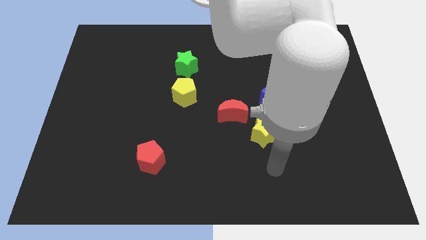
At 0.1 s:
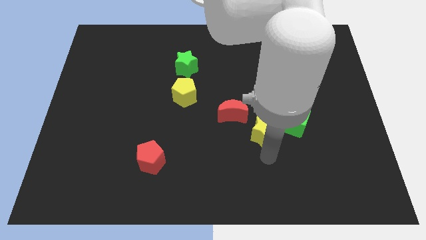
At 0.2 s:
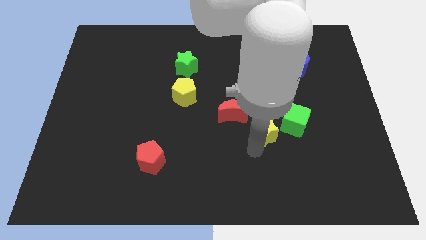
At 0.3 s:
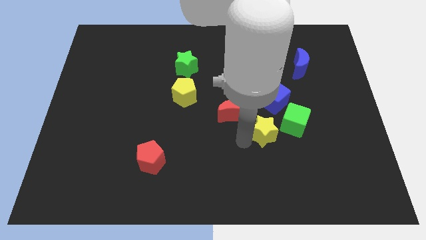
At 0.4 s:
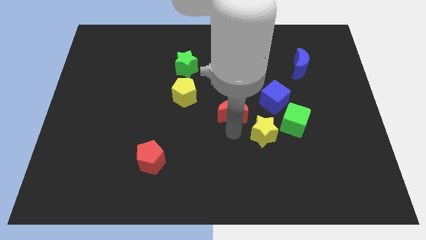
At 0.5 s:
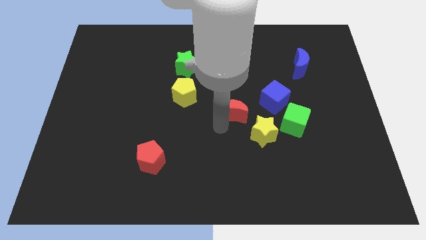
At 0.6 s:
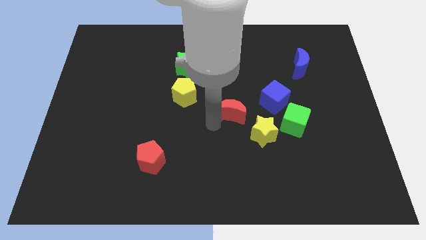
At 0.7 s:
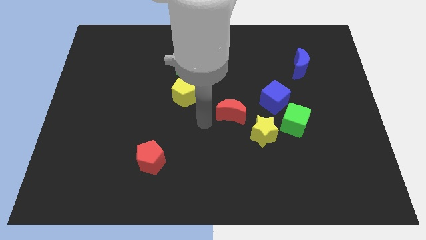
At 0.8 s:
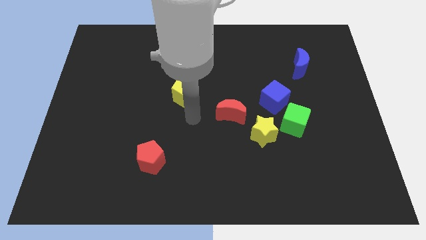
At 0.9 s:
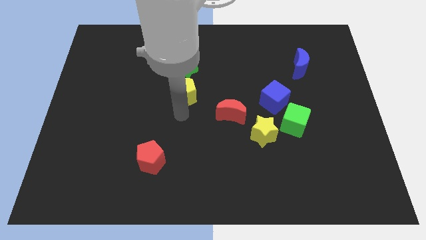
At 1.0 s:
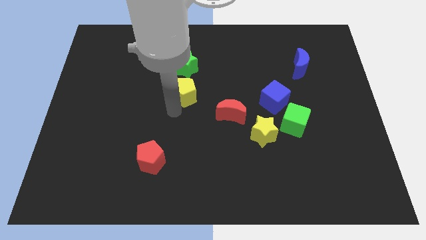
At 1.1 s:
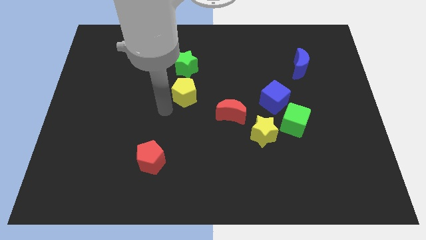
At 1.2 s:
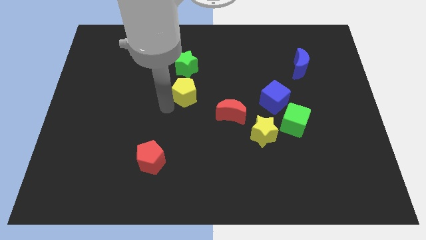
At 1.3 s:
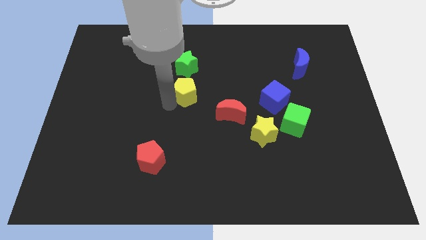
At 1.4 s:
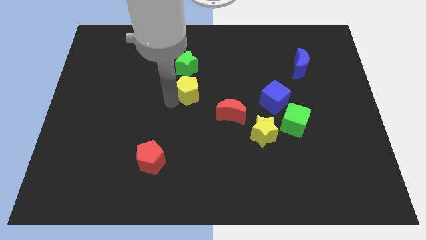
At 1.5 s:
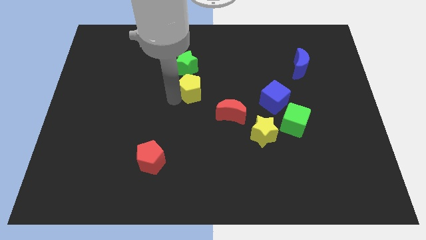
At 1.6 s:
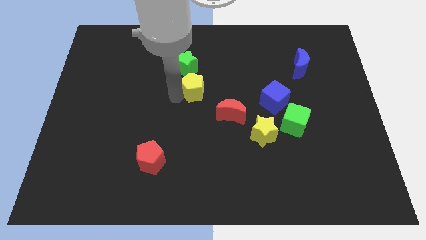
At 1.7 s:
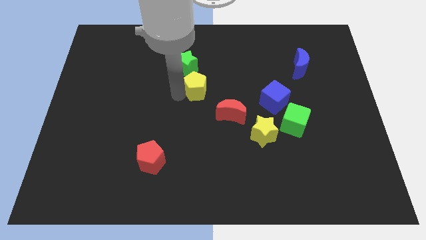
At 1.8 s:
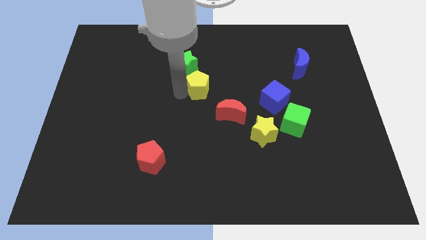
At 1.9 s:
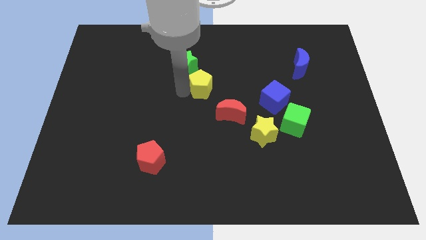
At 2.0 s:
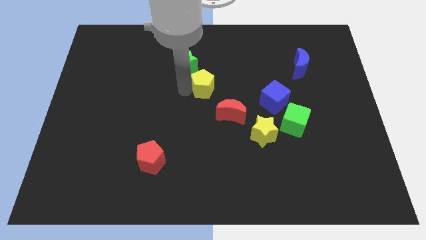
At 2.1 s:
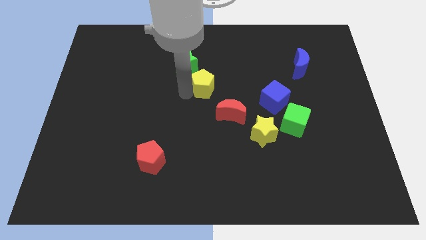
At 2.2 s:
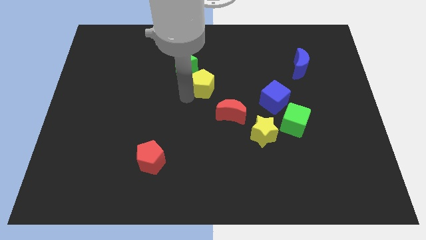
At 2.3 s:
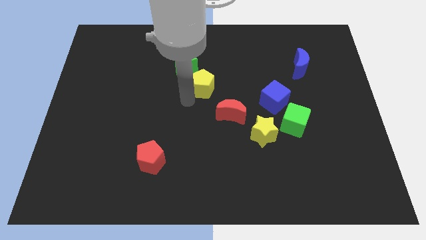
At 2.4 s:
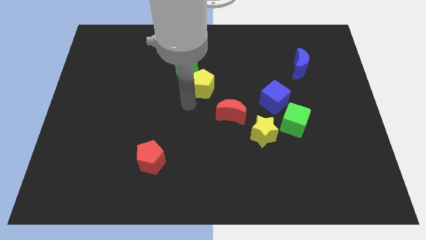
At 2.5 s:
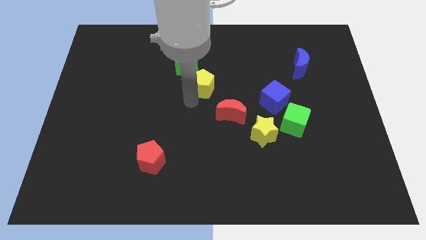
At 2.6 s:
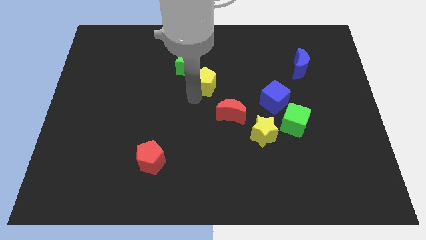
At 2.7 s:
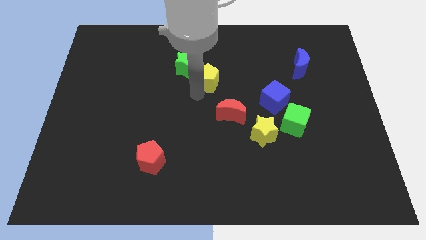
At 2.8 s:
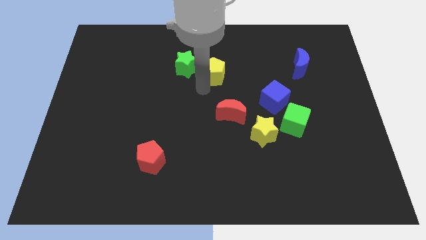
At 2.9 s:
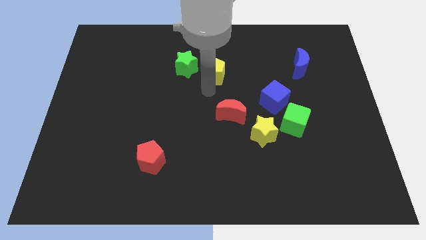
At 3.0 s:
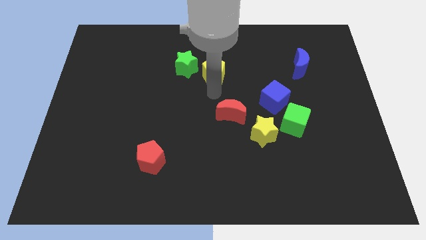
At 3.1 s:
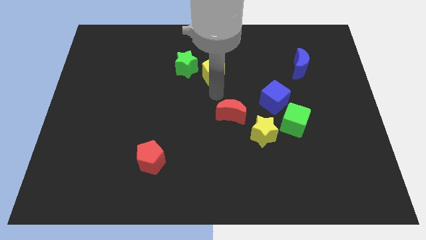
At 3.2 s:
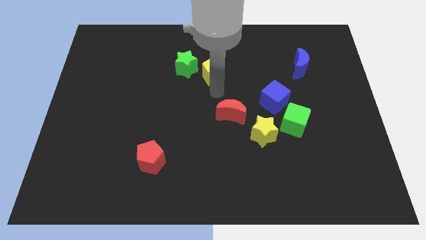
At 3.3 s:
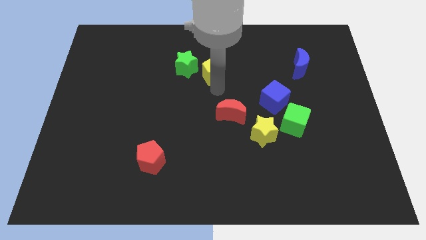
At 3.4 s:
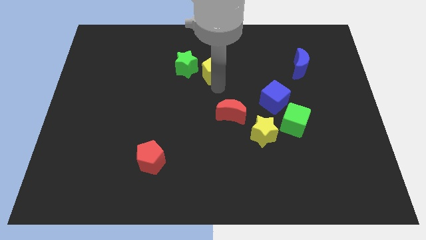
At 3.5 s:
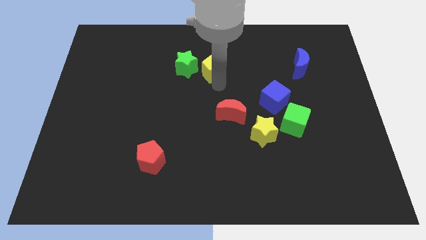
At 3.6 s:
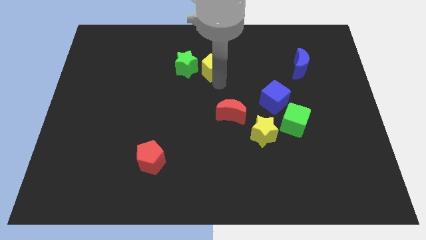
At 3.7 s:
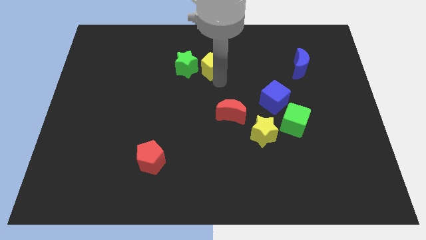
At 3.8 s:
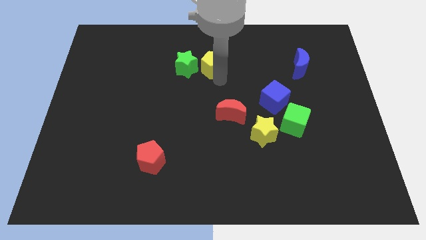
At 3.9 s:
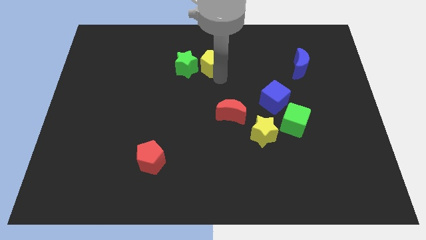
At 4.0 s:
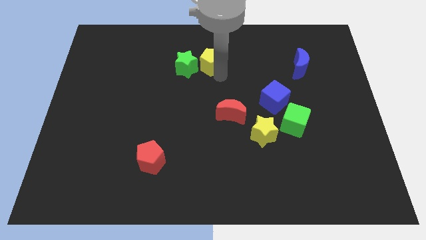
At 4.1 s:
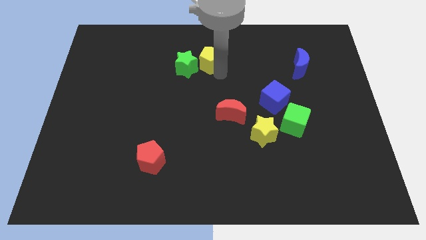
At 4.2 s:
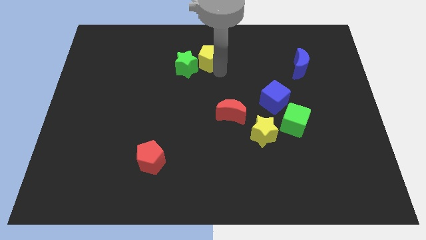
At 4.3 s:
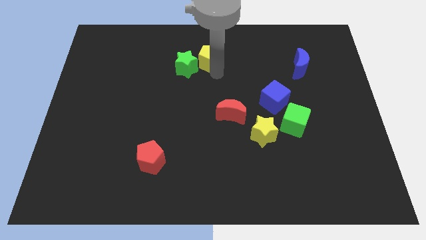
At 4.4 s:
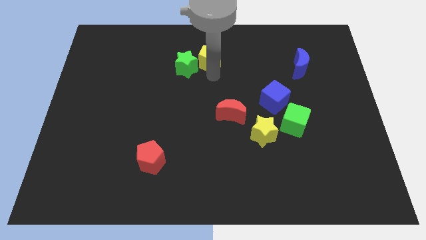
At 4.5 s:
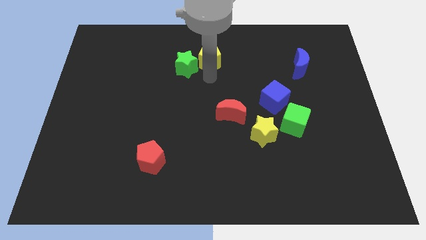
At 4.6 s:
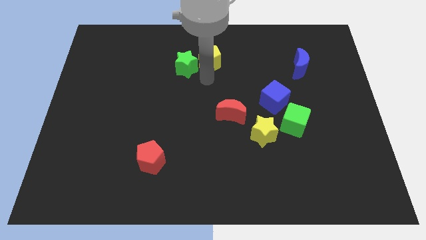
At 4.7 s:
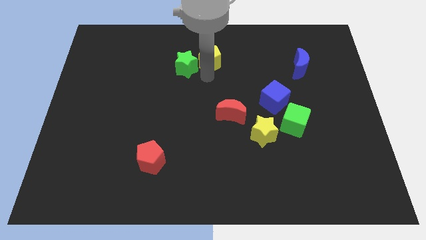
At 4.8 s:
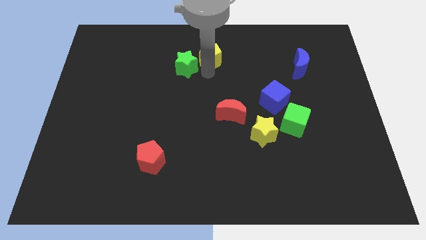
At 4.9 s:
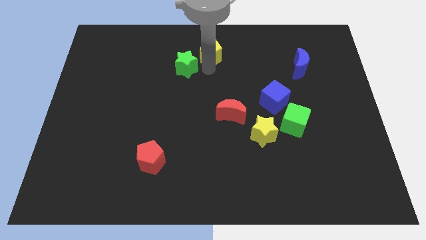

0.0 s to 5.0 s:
move the yellow pentagon to the top side

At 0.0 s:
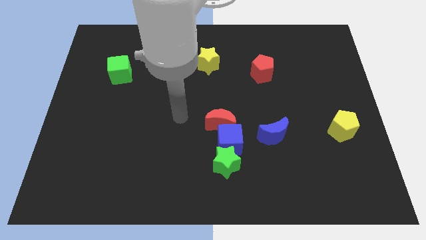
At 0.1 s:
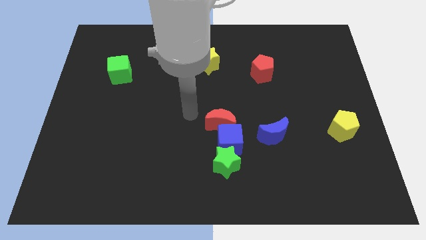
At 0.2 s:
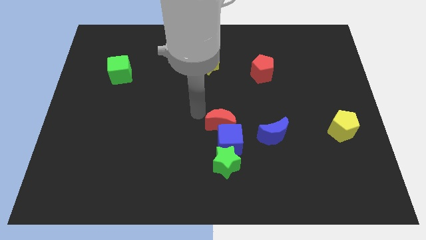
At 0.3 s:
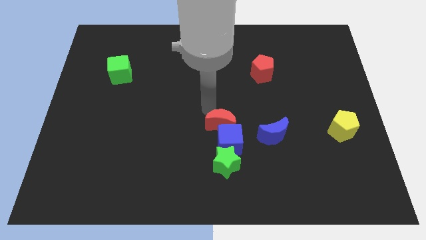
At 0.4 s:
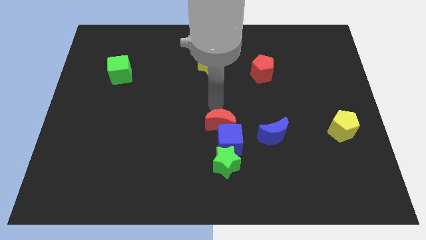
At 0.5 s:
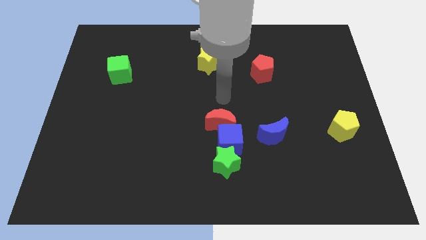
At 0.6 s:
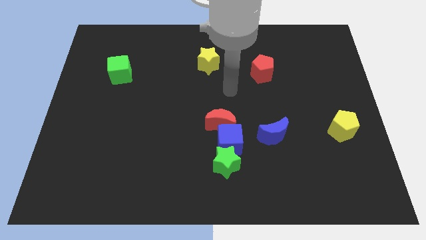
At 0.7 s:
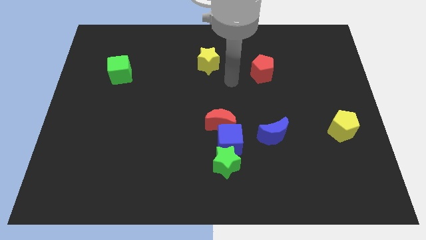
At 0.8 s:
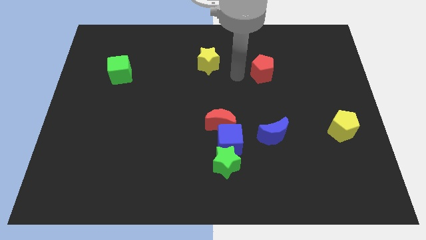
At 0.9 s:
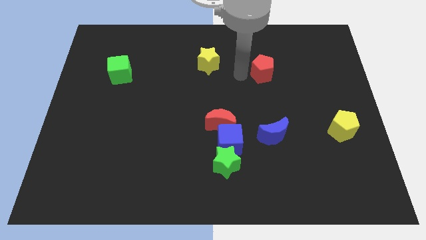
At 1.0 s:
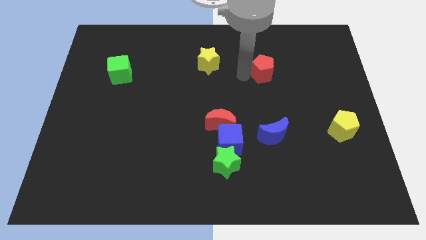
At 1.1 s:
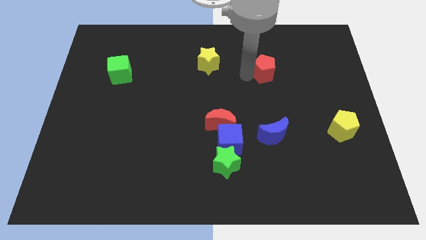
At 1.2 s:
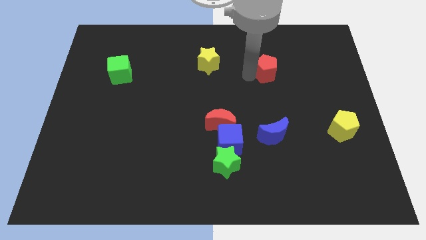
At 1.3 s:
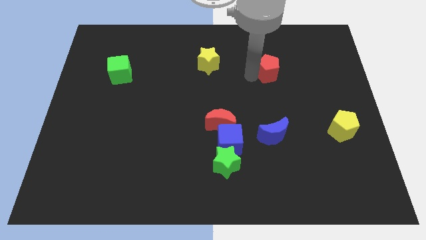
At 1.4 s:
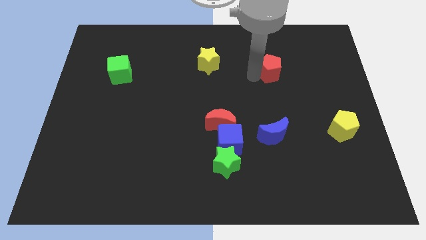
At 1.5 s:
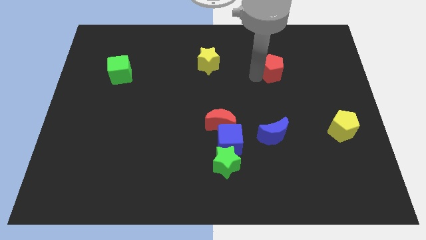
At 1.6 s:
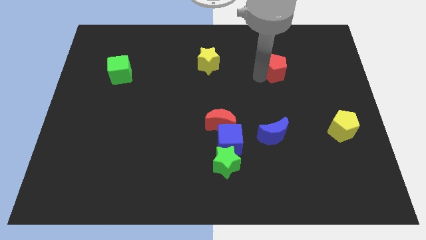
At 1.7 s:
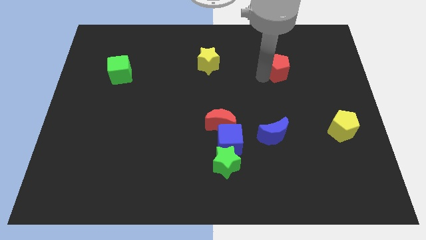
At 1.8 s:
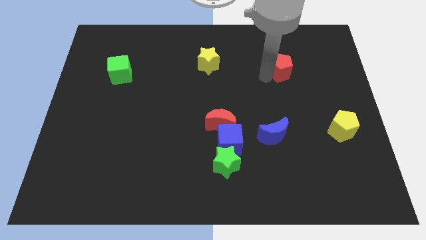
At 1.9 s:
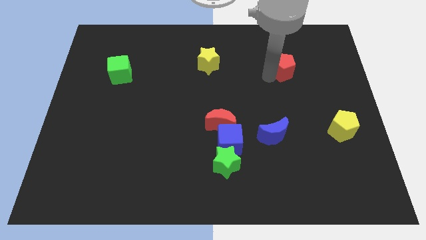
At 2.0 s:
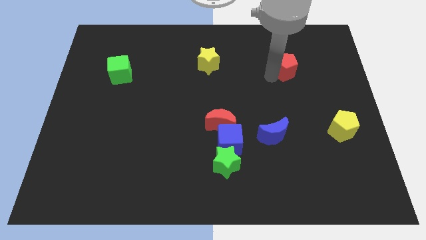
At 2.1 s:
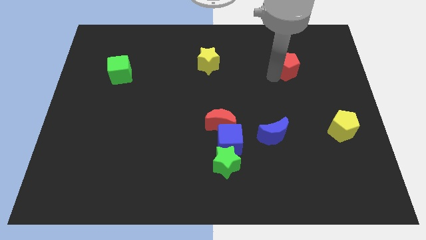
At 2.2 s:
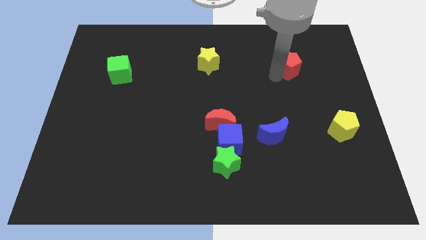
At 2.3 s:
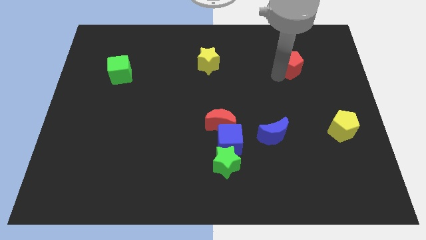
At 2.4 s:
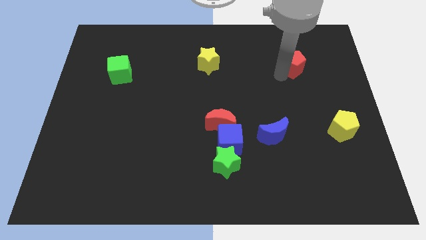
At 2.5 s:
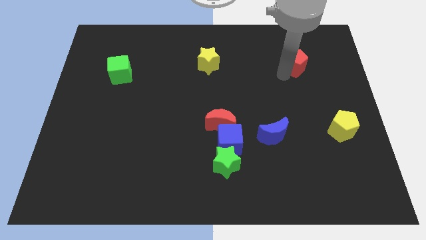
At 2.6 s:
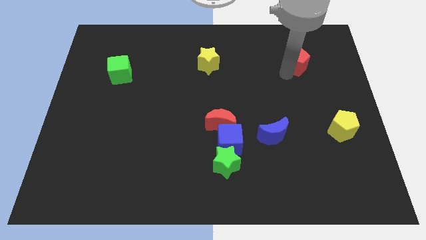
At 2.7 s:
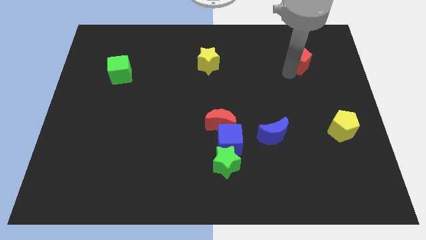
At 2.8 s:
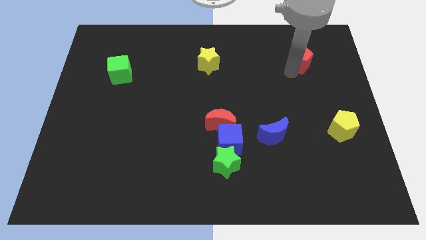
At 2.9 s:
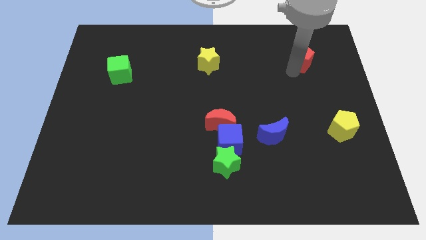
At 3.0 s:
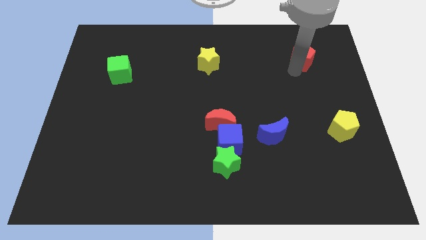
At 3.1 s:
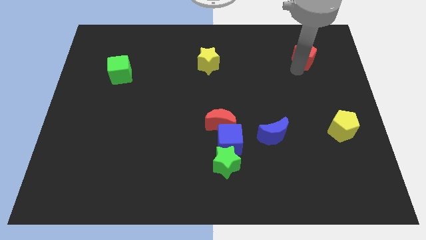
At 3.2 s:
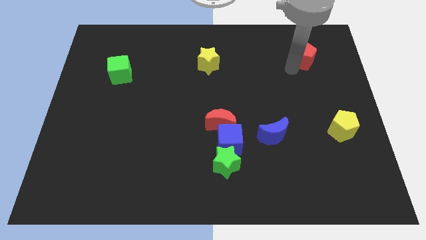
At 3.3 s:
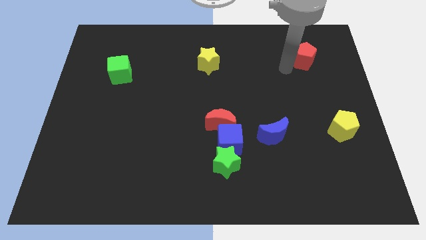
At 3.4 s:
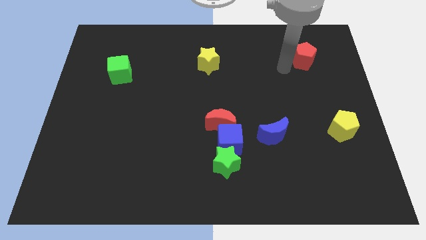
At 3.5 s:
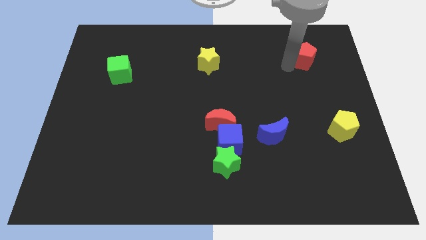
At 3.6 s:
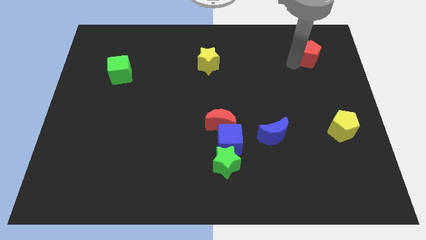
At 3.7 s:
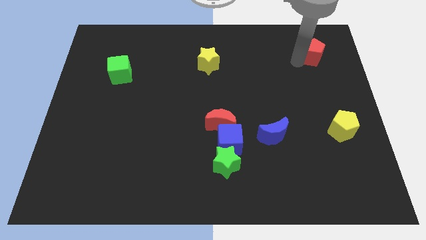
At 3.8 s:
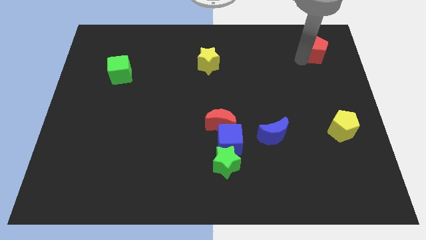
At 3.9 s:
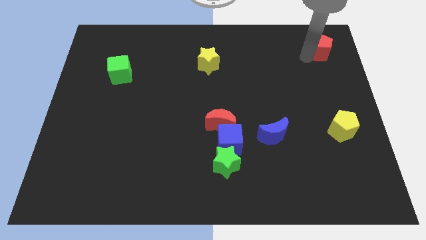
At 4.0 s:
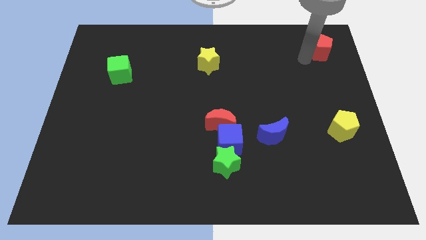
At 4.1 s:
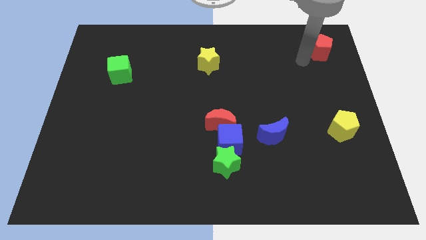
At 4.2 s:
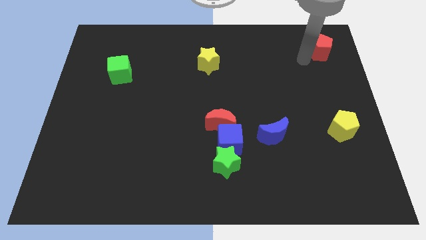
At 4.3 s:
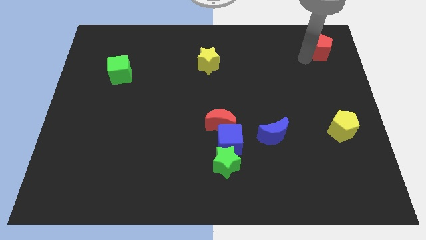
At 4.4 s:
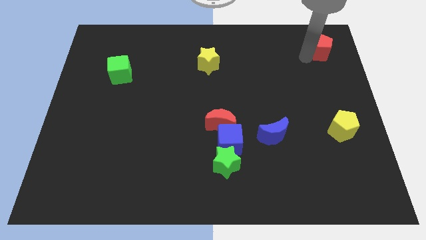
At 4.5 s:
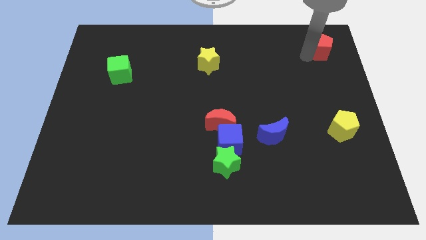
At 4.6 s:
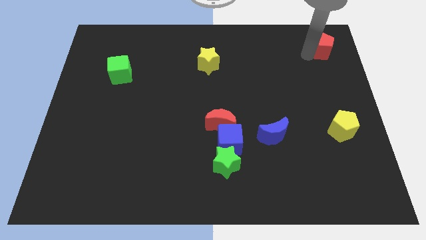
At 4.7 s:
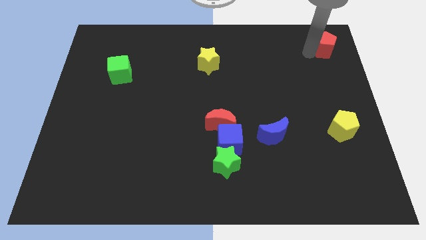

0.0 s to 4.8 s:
push the red pentagon to the top right of the board
